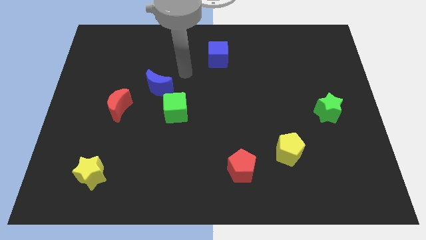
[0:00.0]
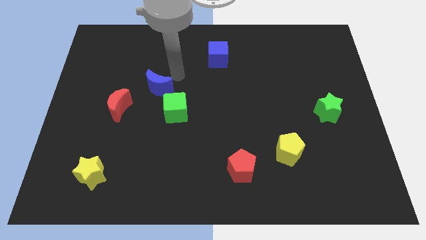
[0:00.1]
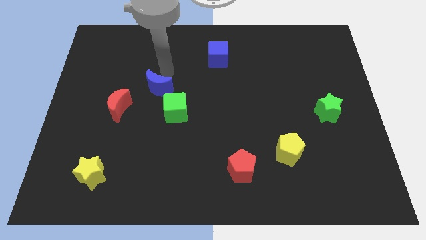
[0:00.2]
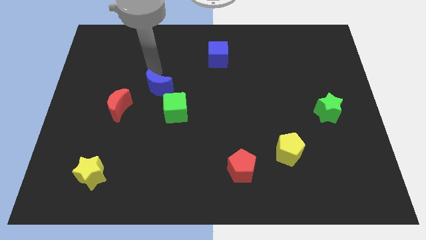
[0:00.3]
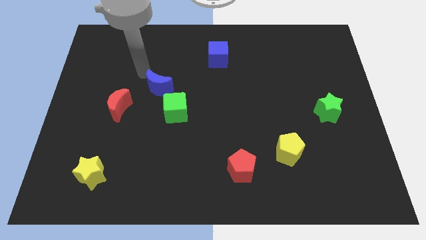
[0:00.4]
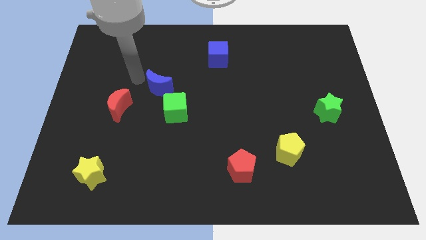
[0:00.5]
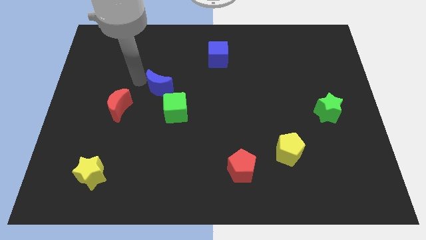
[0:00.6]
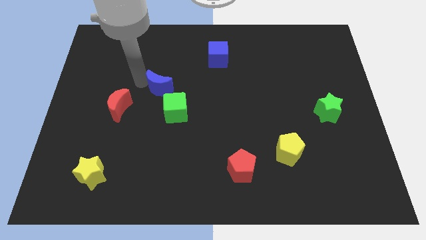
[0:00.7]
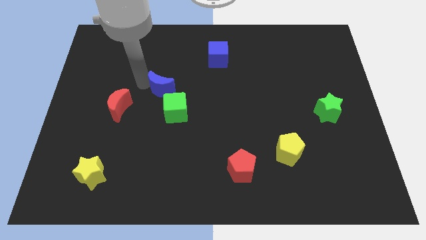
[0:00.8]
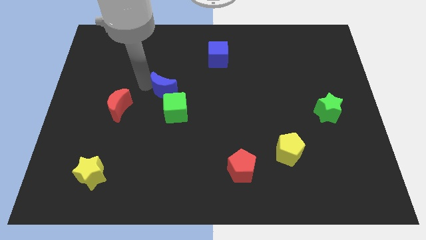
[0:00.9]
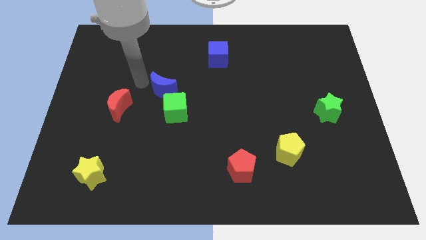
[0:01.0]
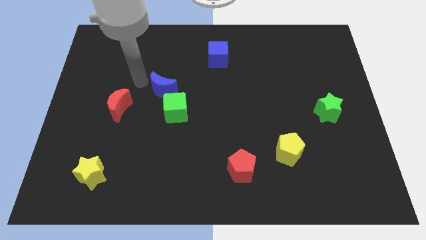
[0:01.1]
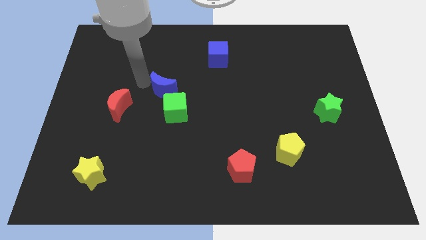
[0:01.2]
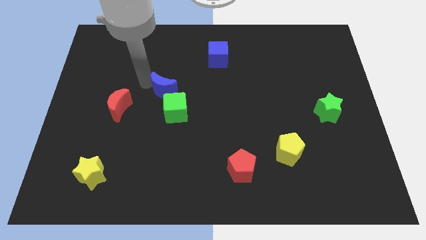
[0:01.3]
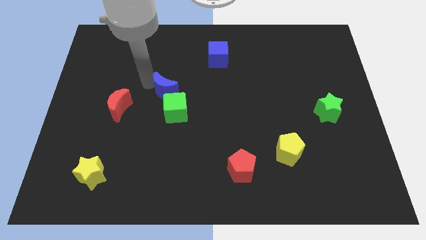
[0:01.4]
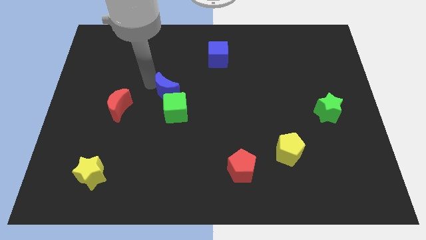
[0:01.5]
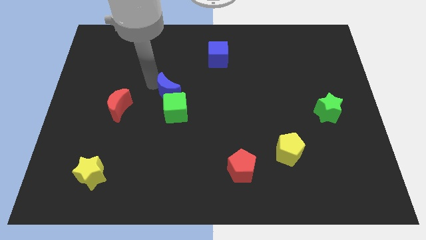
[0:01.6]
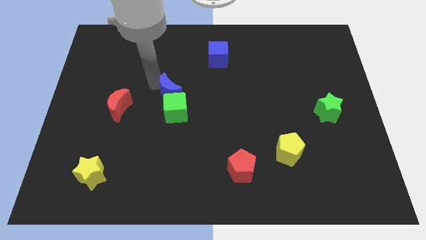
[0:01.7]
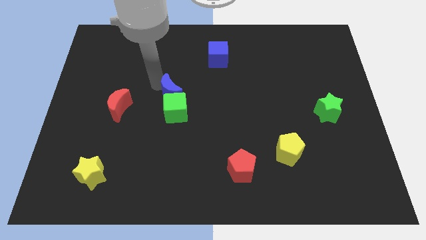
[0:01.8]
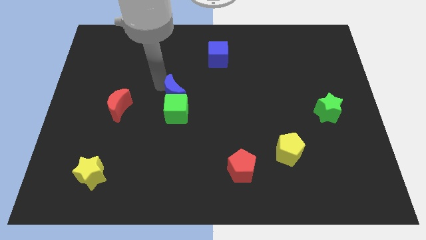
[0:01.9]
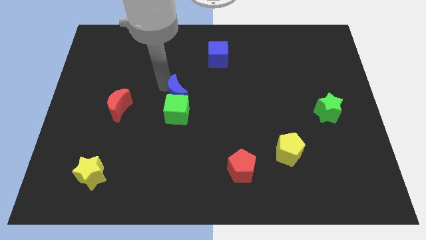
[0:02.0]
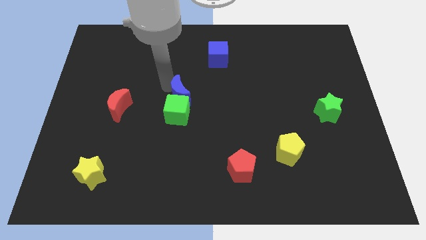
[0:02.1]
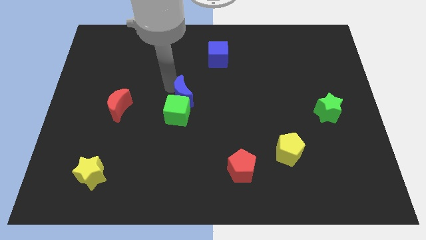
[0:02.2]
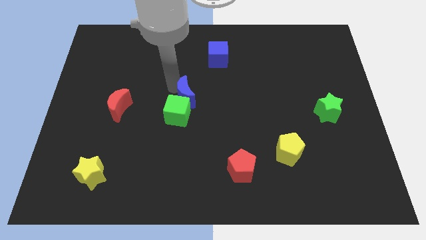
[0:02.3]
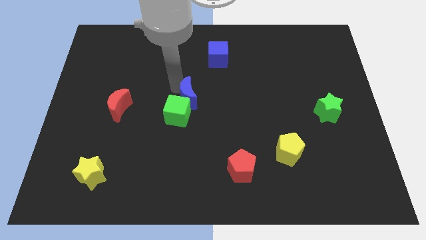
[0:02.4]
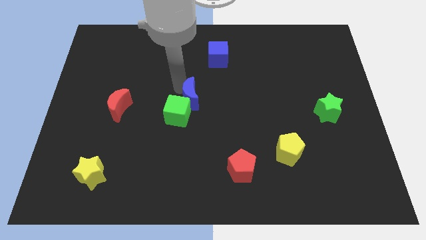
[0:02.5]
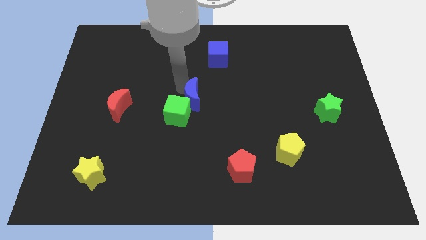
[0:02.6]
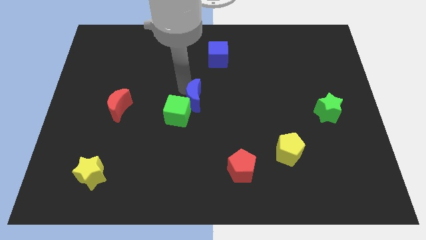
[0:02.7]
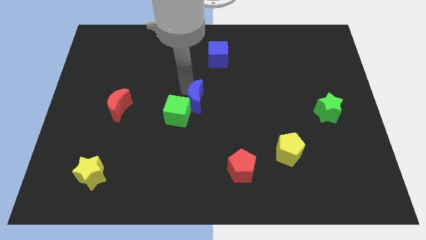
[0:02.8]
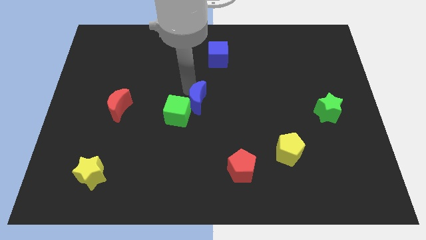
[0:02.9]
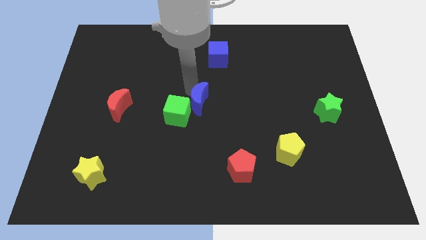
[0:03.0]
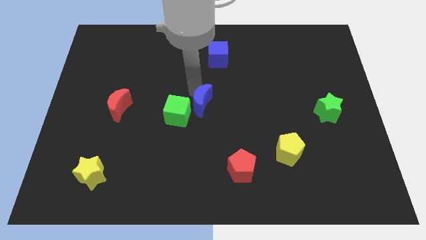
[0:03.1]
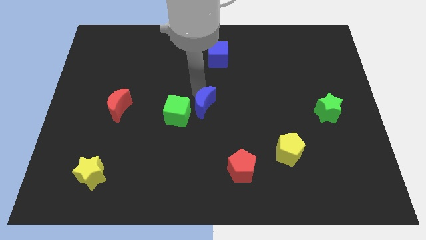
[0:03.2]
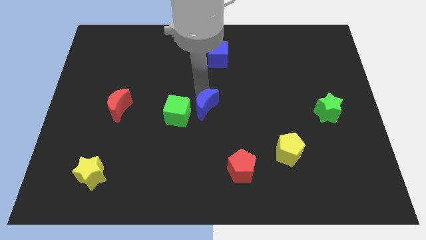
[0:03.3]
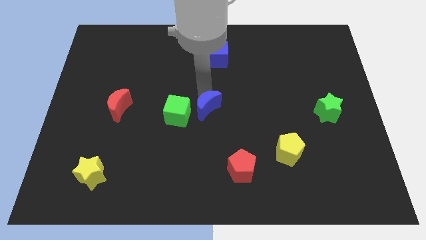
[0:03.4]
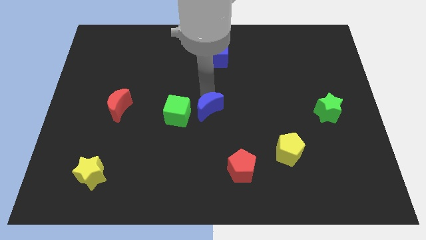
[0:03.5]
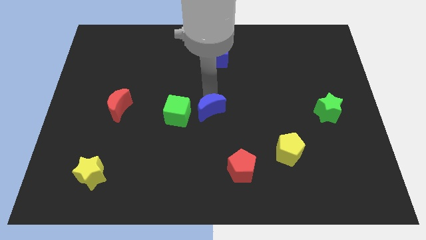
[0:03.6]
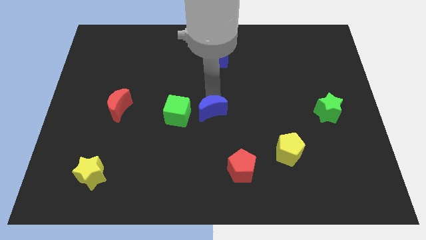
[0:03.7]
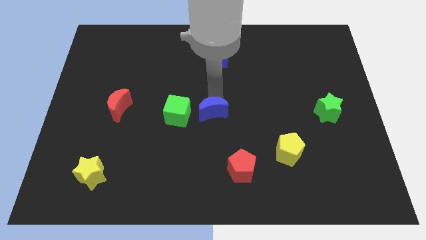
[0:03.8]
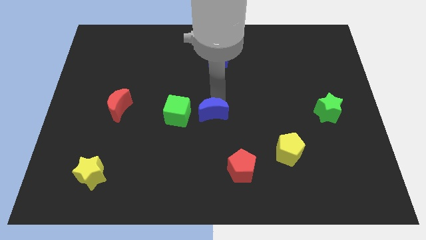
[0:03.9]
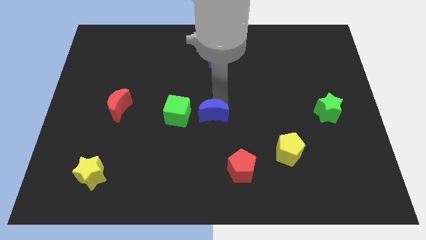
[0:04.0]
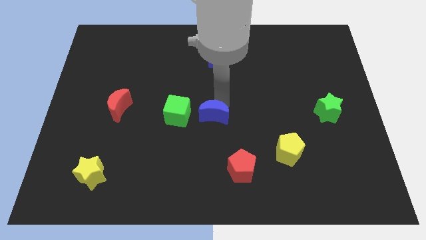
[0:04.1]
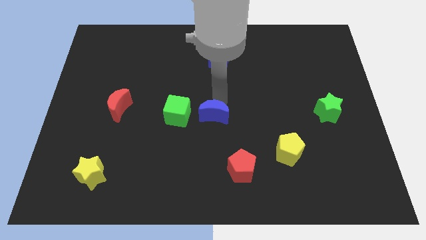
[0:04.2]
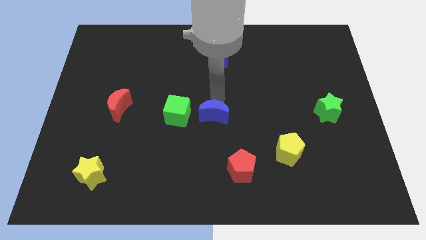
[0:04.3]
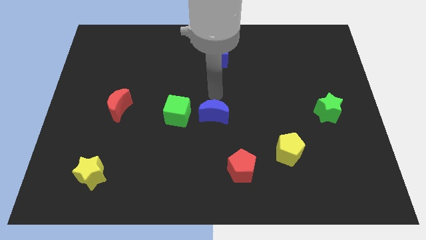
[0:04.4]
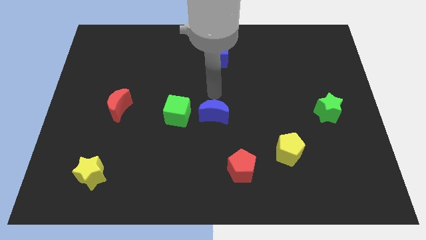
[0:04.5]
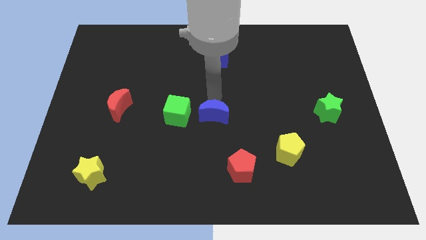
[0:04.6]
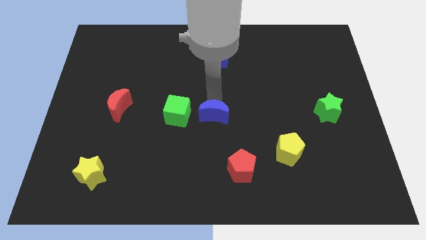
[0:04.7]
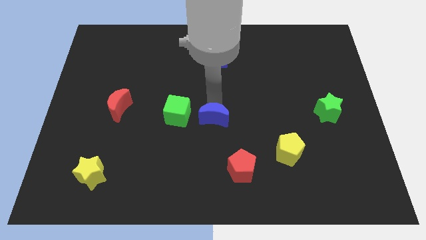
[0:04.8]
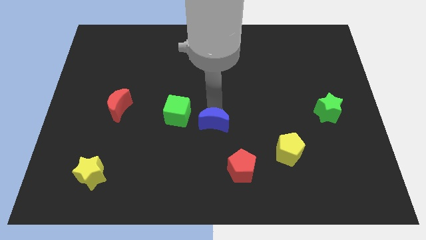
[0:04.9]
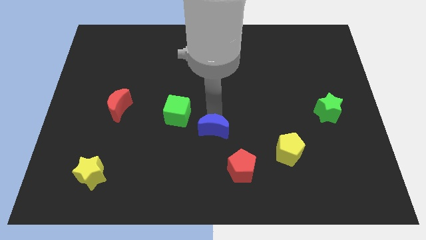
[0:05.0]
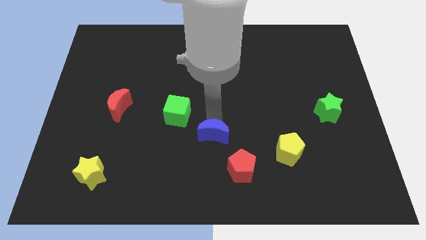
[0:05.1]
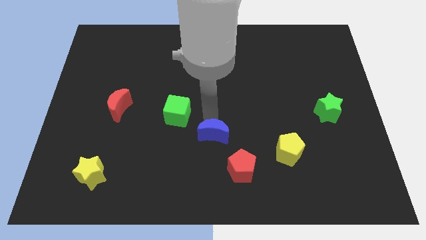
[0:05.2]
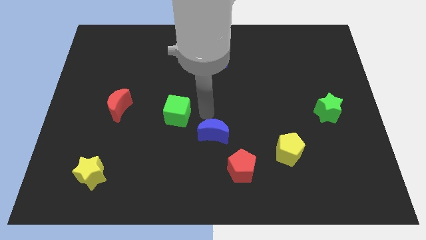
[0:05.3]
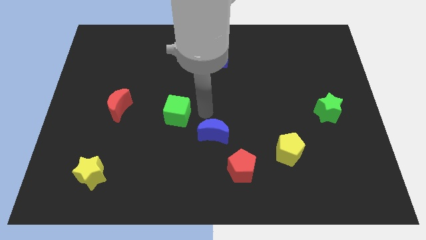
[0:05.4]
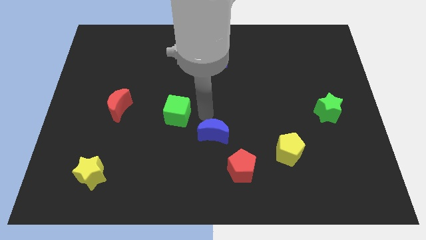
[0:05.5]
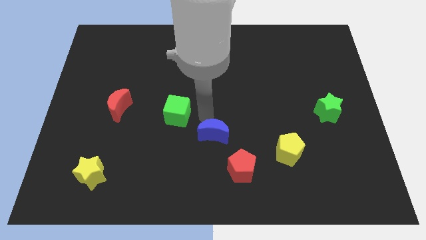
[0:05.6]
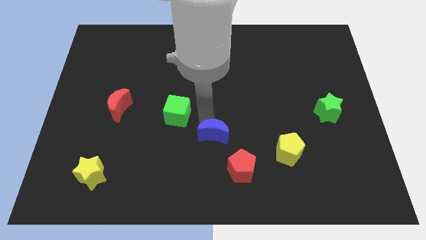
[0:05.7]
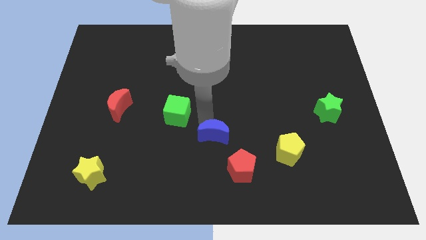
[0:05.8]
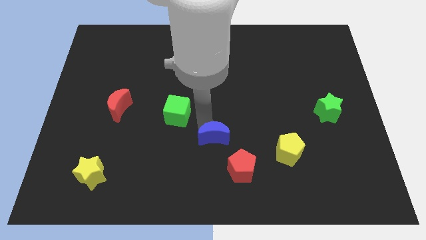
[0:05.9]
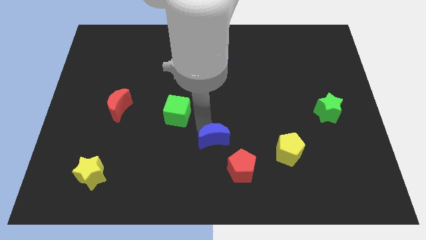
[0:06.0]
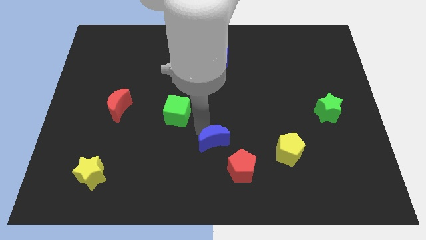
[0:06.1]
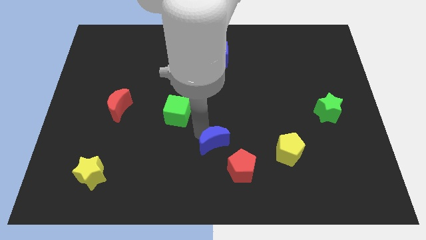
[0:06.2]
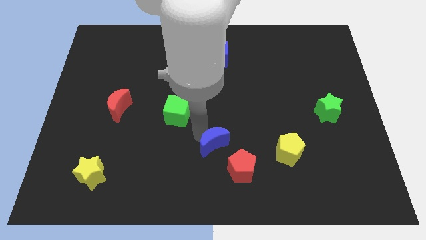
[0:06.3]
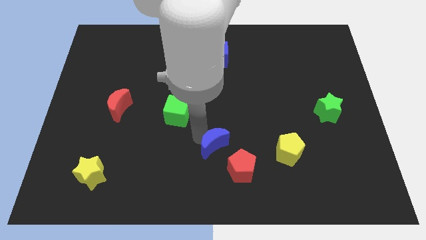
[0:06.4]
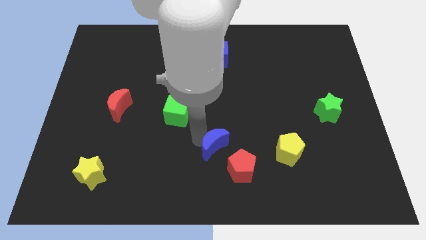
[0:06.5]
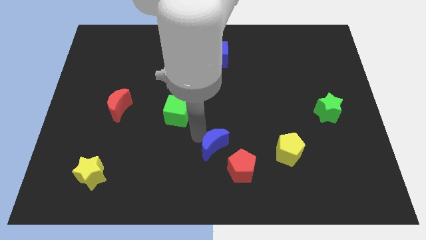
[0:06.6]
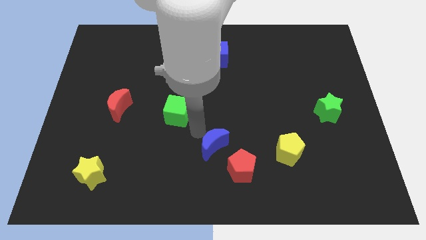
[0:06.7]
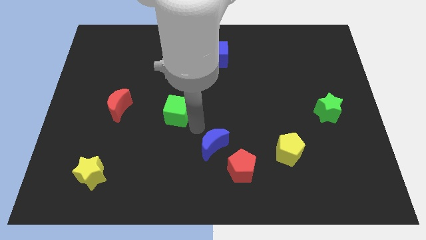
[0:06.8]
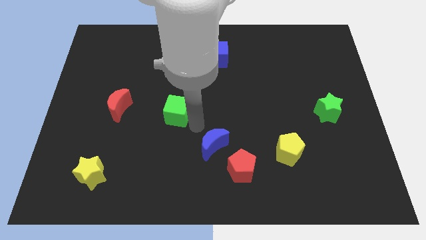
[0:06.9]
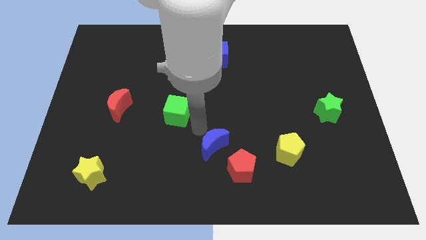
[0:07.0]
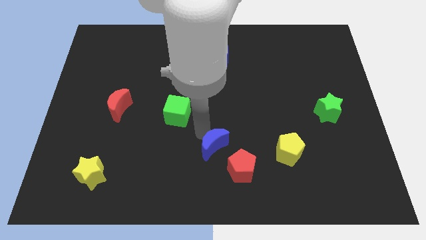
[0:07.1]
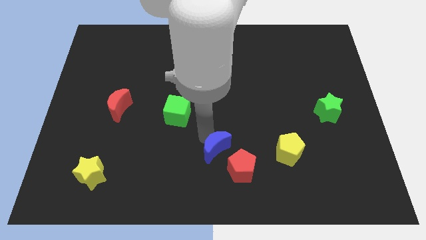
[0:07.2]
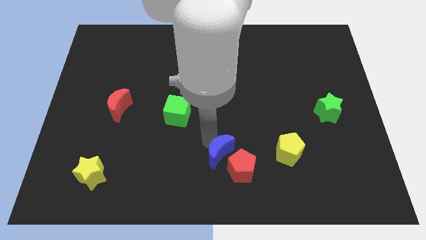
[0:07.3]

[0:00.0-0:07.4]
slide the blue moon close to the red pentagon
